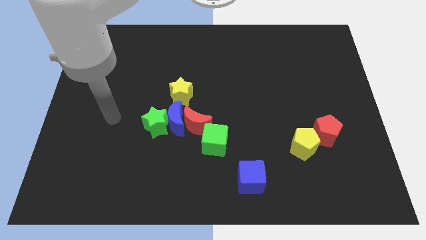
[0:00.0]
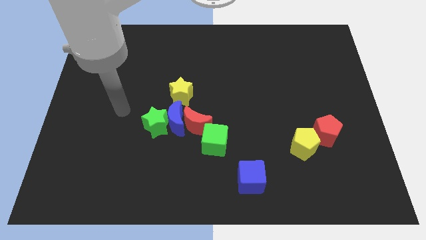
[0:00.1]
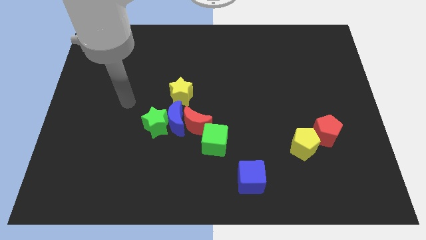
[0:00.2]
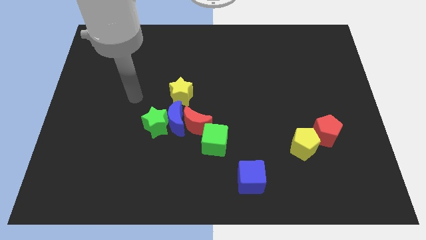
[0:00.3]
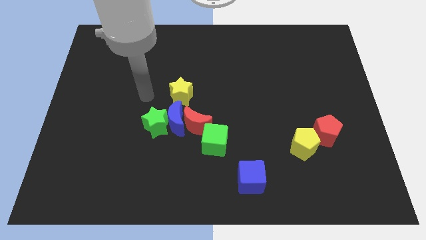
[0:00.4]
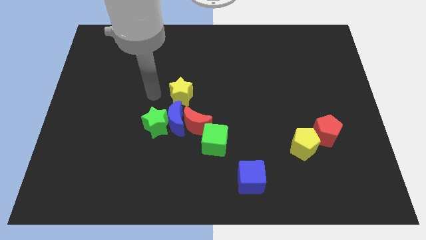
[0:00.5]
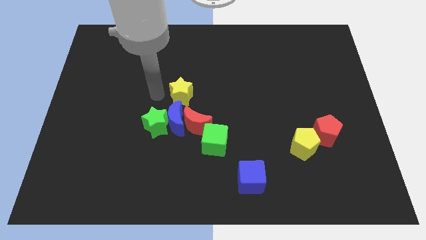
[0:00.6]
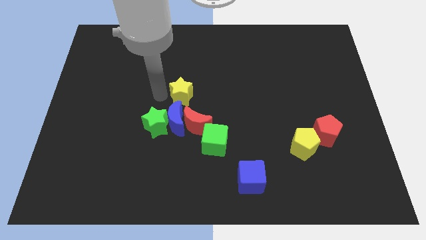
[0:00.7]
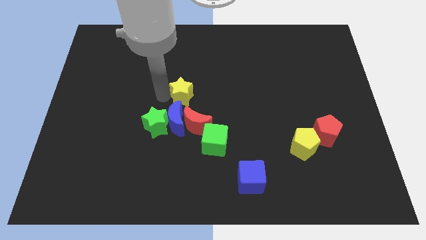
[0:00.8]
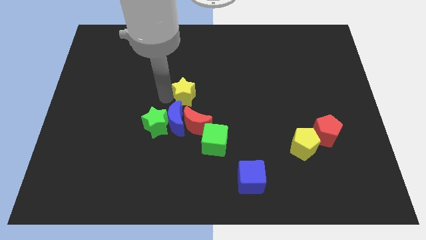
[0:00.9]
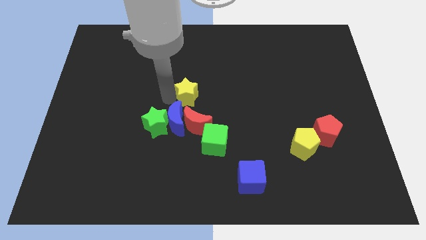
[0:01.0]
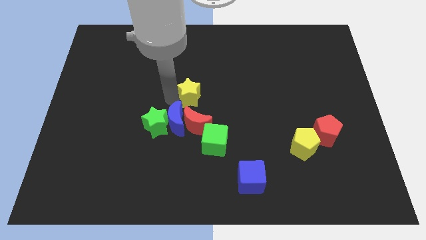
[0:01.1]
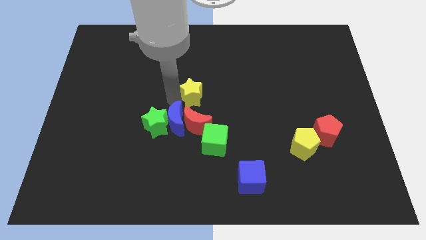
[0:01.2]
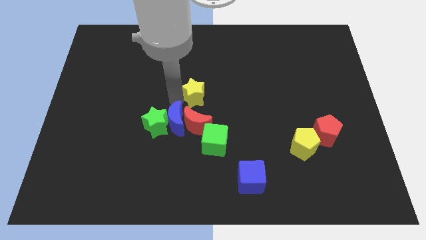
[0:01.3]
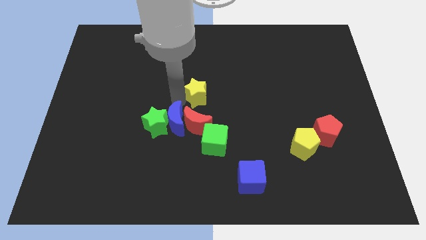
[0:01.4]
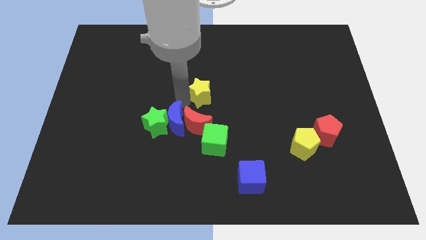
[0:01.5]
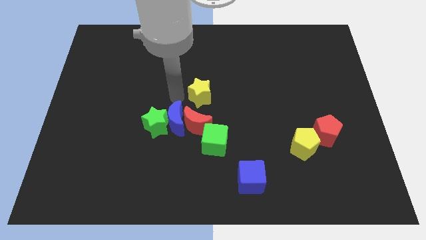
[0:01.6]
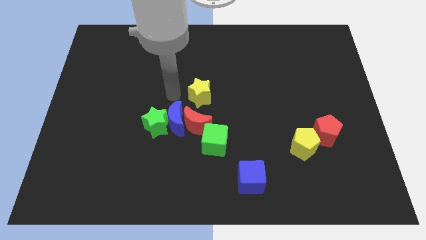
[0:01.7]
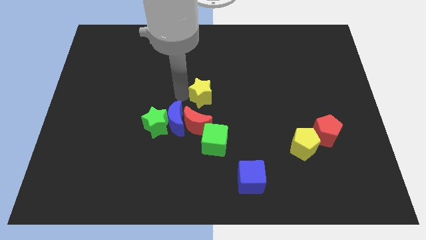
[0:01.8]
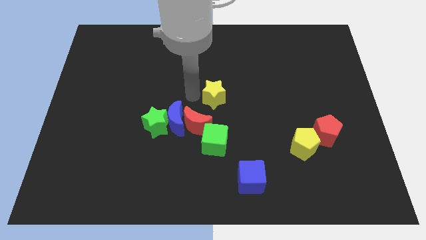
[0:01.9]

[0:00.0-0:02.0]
push the yellow star right slightly

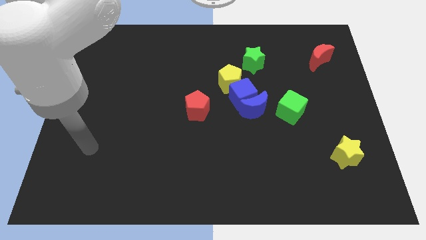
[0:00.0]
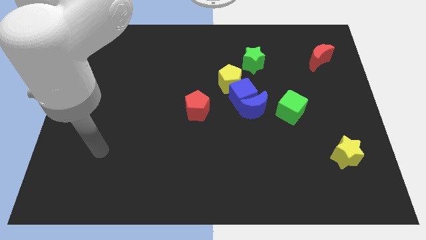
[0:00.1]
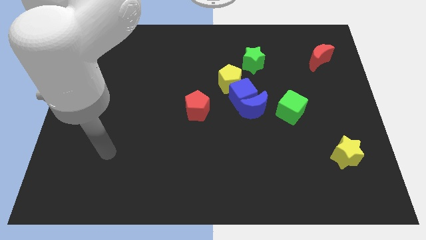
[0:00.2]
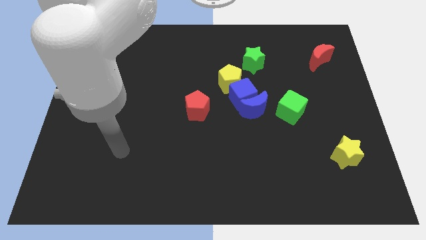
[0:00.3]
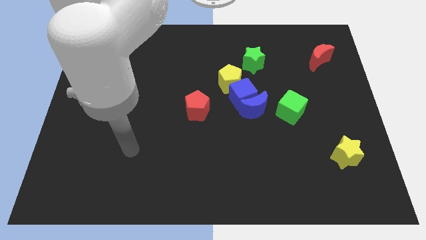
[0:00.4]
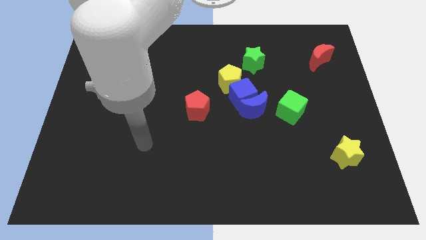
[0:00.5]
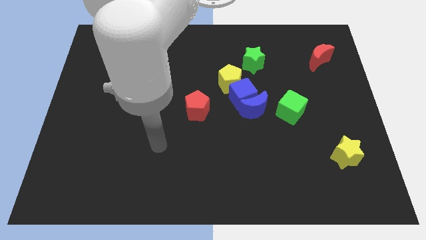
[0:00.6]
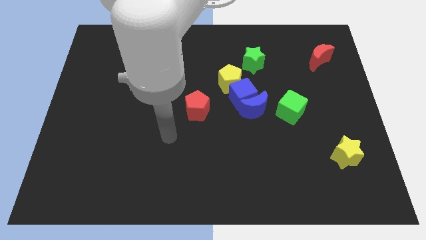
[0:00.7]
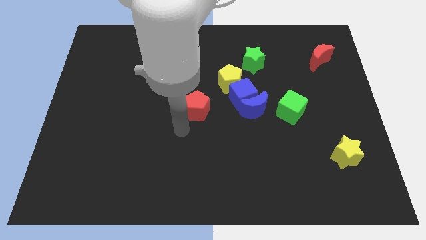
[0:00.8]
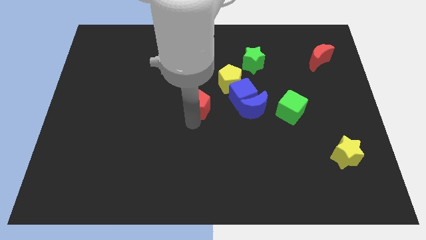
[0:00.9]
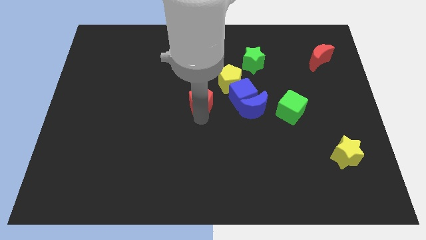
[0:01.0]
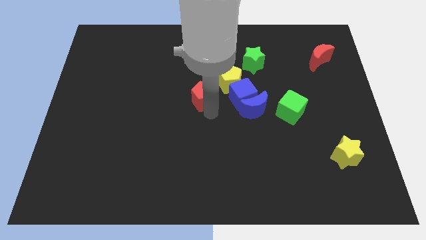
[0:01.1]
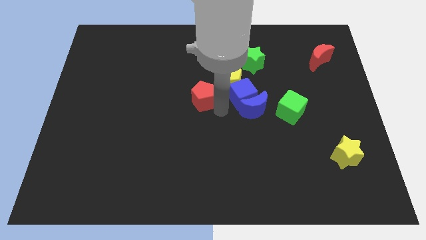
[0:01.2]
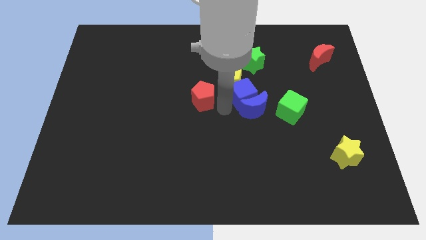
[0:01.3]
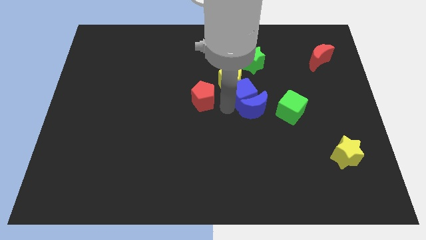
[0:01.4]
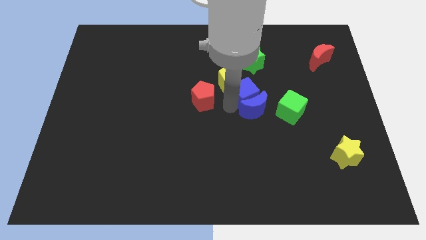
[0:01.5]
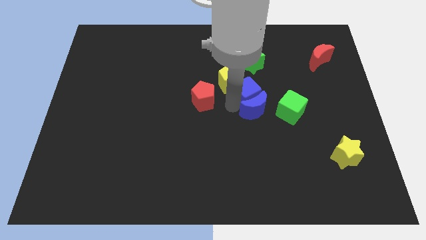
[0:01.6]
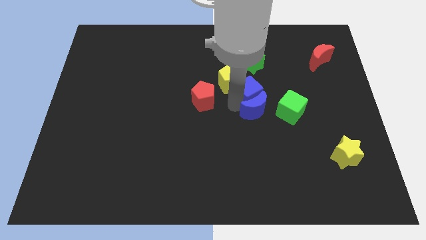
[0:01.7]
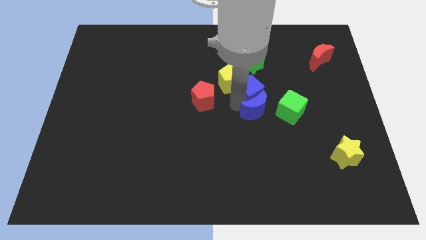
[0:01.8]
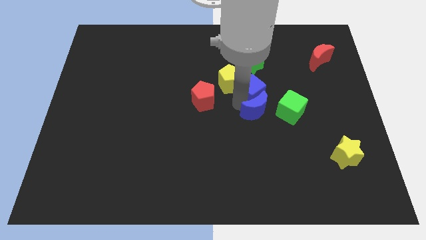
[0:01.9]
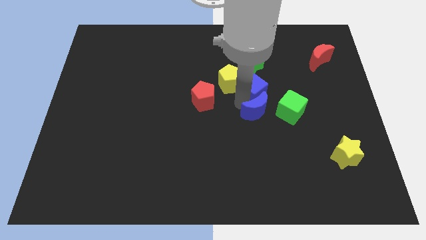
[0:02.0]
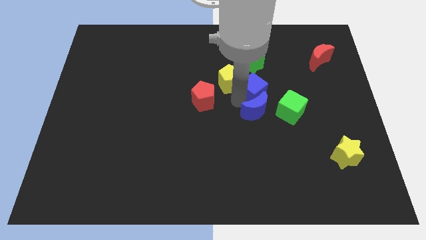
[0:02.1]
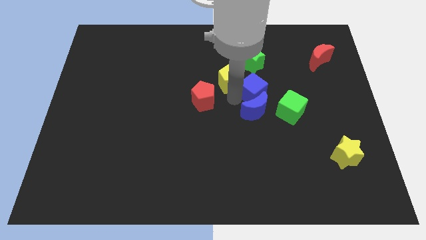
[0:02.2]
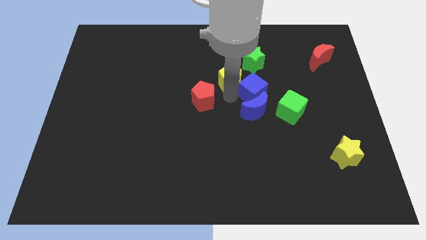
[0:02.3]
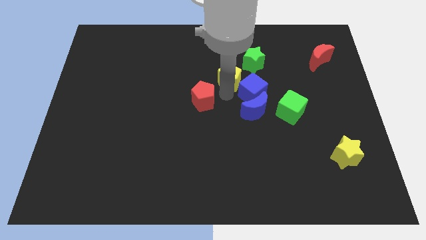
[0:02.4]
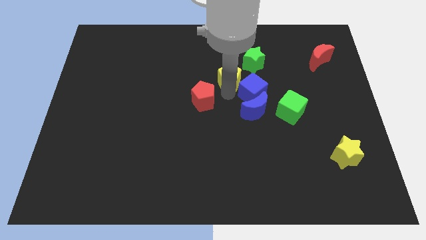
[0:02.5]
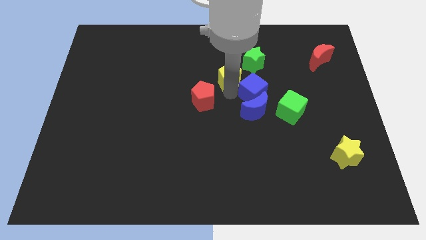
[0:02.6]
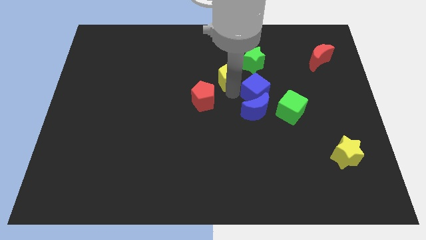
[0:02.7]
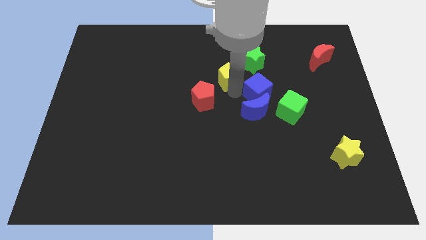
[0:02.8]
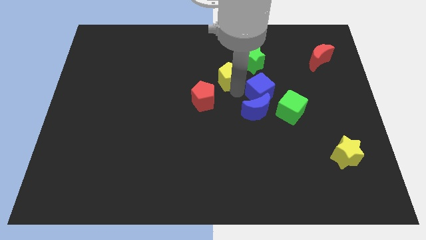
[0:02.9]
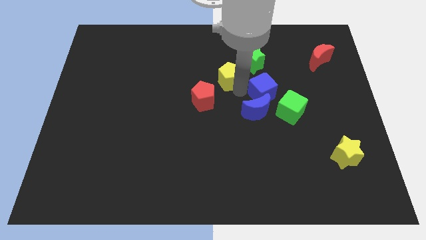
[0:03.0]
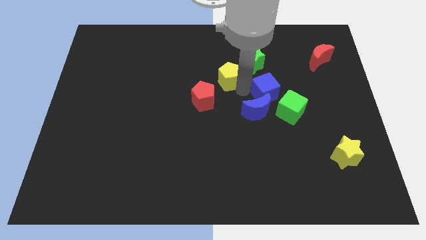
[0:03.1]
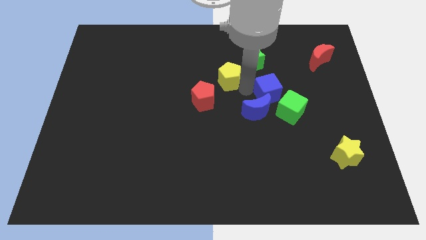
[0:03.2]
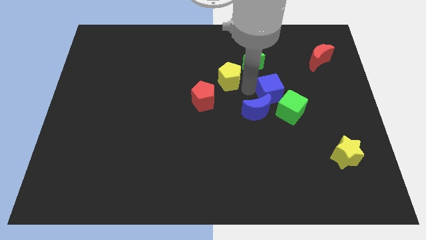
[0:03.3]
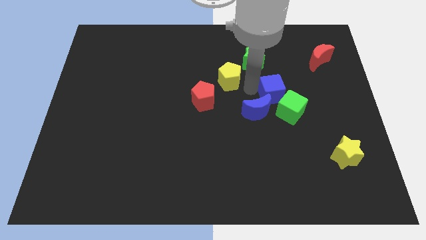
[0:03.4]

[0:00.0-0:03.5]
slightly move the blue cube right

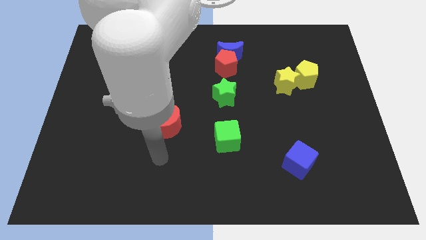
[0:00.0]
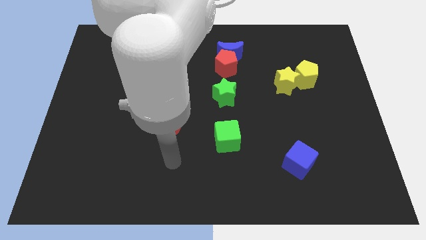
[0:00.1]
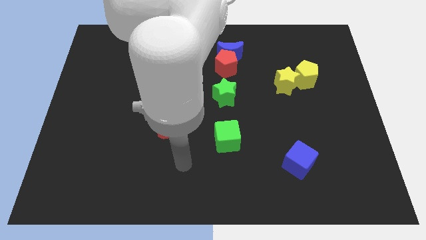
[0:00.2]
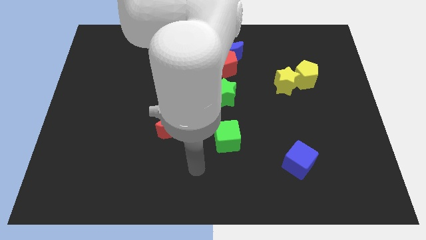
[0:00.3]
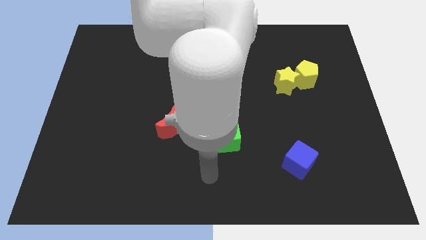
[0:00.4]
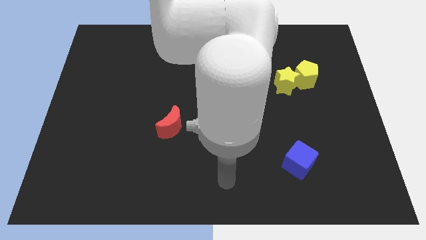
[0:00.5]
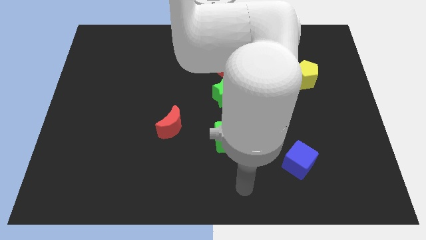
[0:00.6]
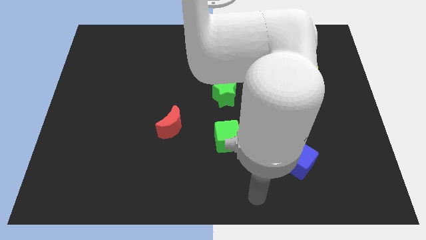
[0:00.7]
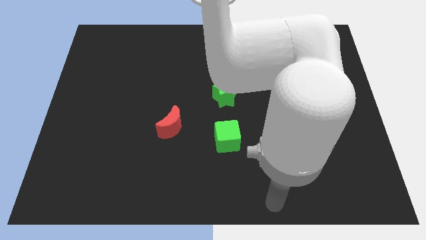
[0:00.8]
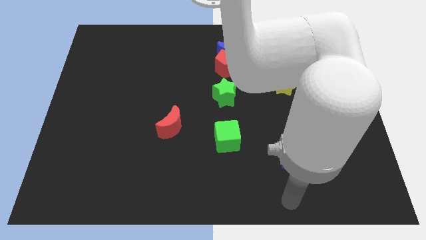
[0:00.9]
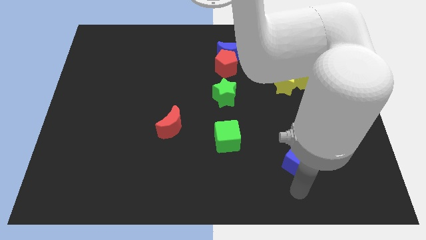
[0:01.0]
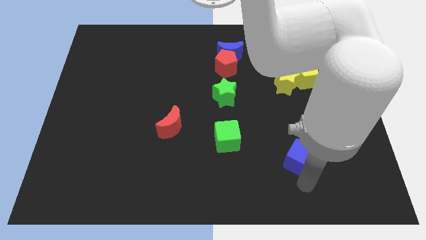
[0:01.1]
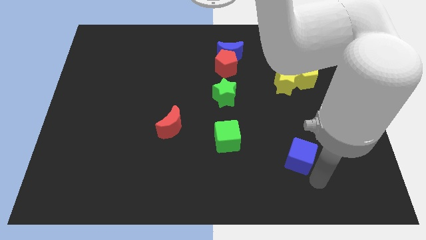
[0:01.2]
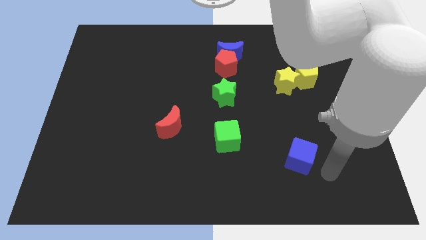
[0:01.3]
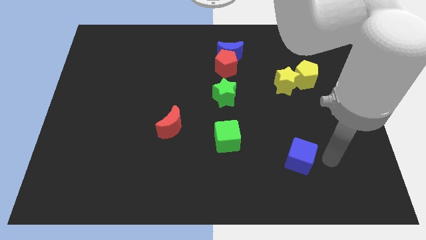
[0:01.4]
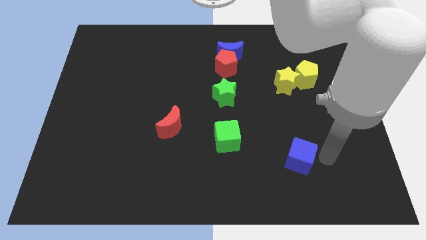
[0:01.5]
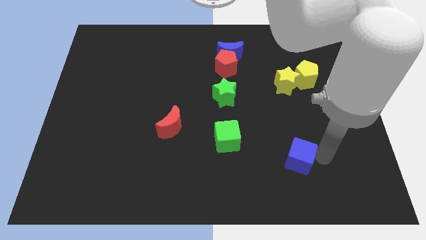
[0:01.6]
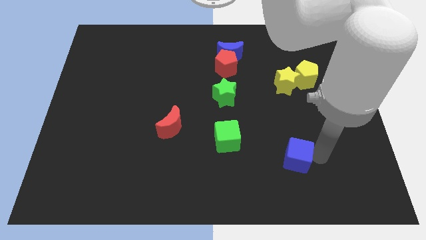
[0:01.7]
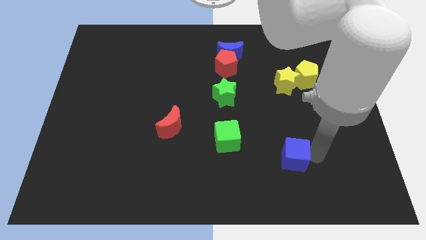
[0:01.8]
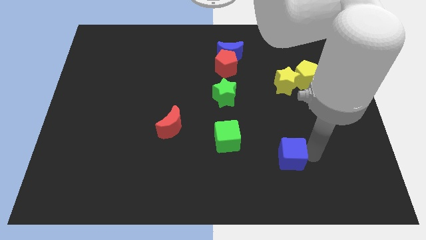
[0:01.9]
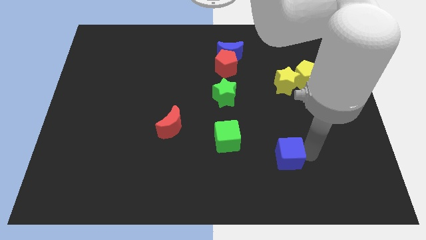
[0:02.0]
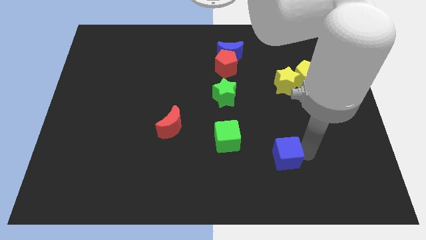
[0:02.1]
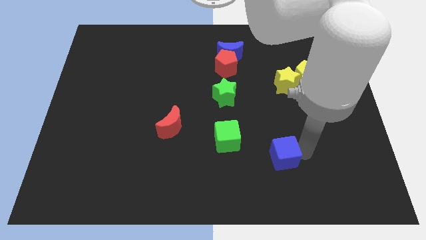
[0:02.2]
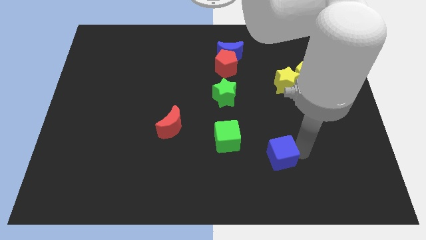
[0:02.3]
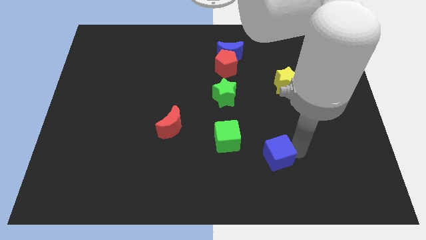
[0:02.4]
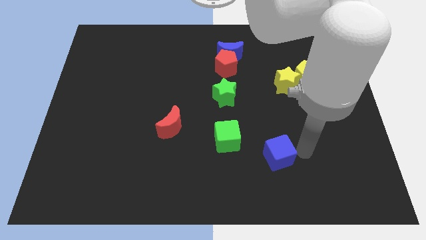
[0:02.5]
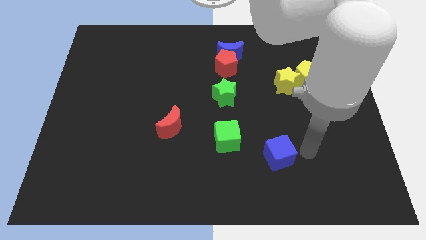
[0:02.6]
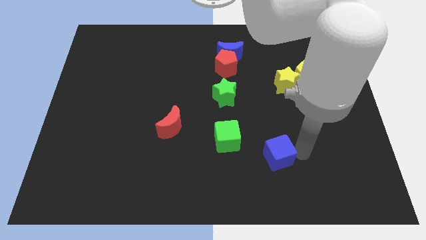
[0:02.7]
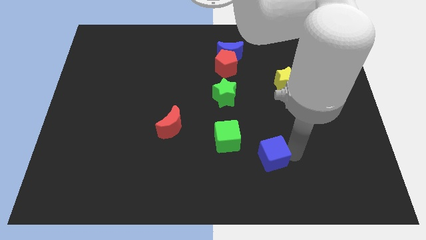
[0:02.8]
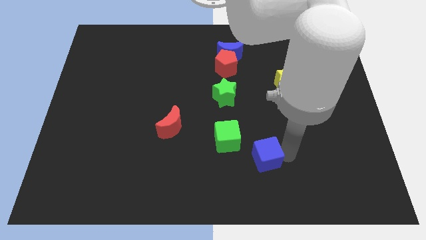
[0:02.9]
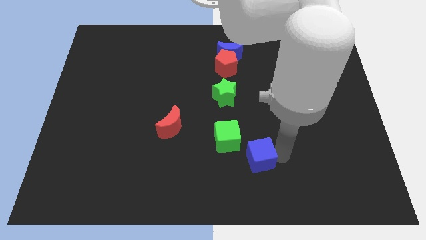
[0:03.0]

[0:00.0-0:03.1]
slightly push the blue cube to the left
